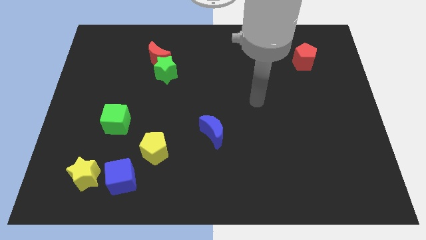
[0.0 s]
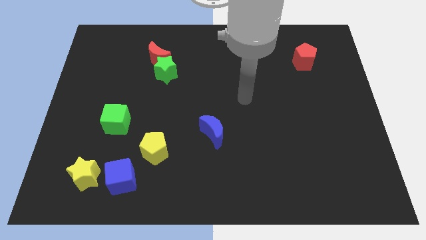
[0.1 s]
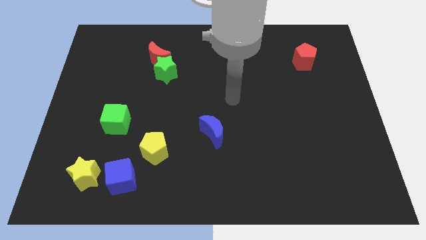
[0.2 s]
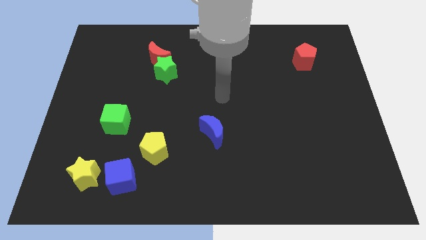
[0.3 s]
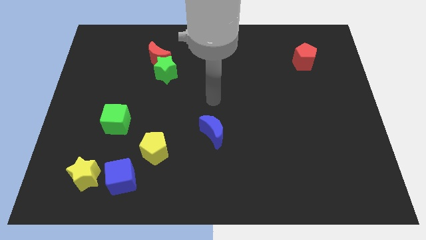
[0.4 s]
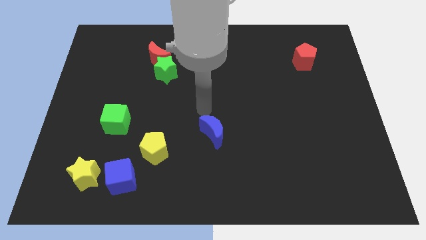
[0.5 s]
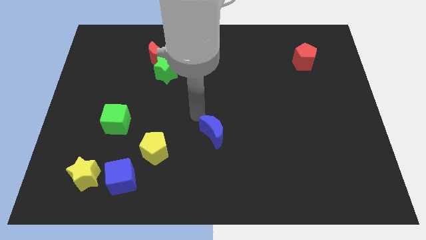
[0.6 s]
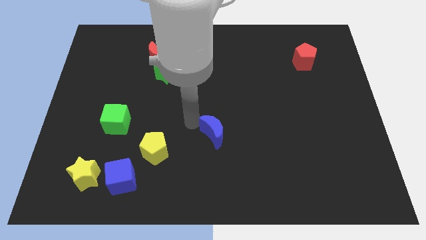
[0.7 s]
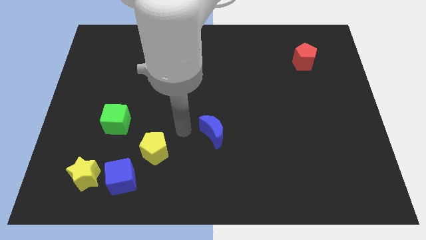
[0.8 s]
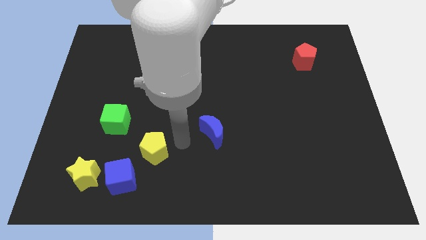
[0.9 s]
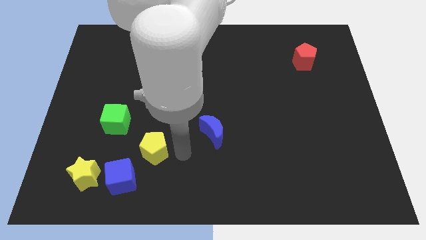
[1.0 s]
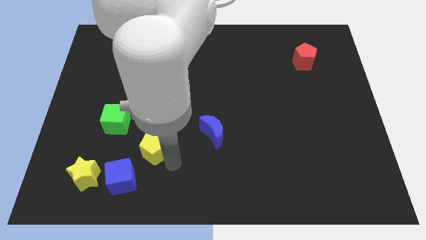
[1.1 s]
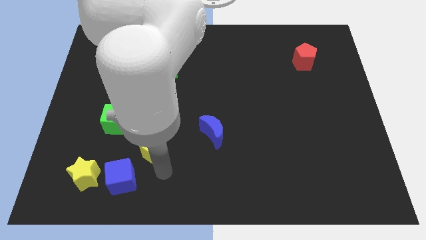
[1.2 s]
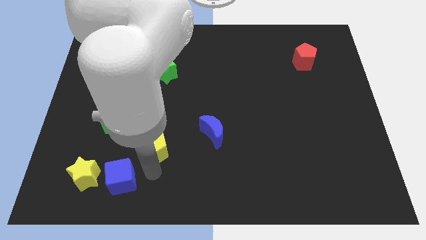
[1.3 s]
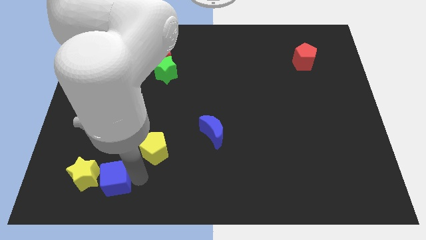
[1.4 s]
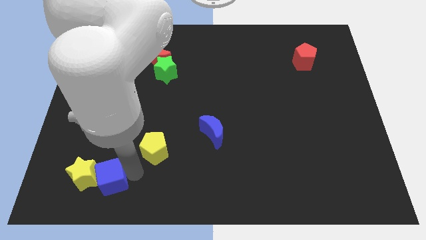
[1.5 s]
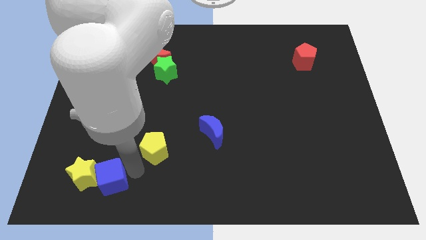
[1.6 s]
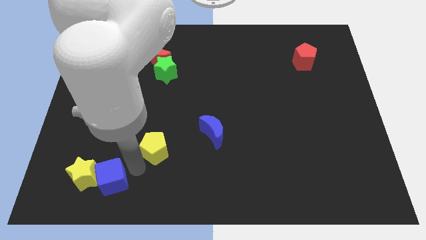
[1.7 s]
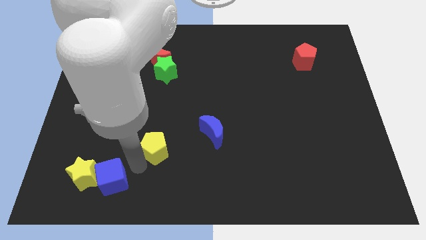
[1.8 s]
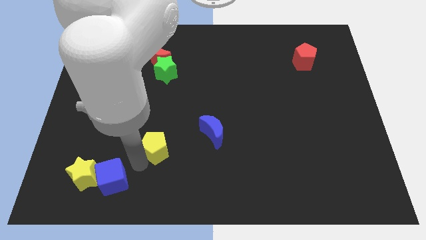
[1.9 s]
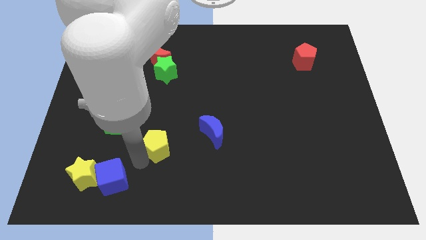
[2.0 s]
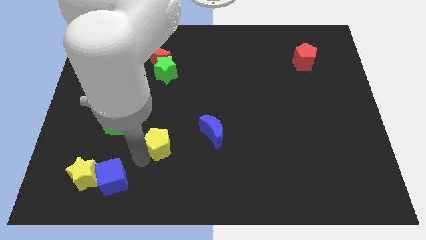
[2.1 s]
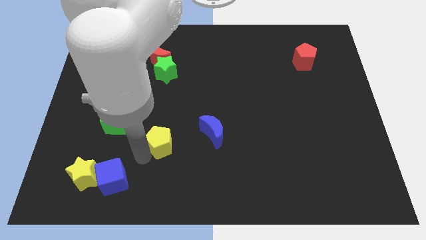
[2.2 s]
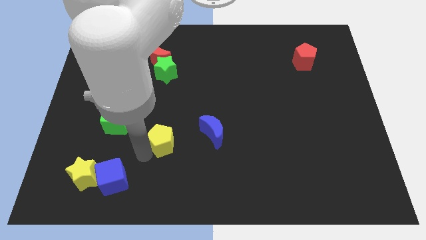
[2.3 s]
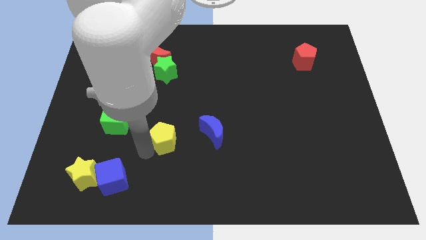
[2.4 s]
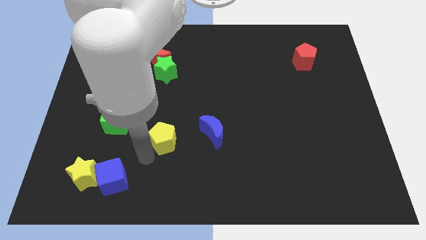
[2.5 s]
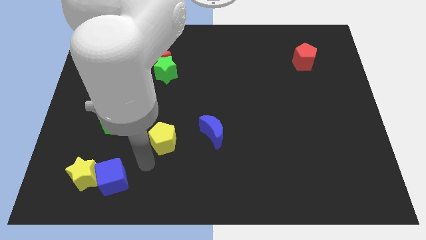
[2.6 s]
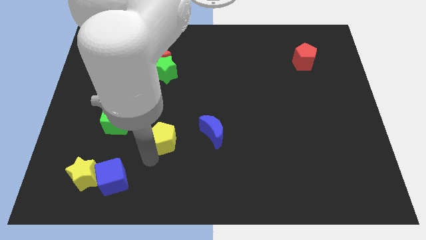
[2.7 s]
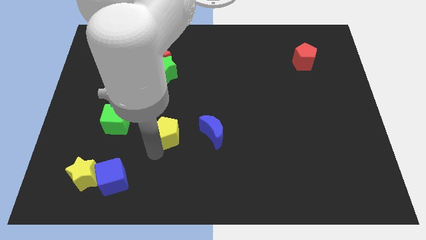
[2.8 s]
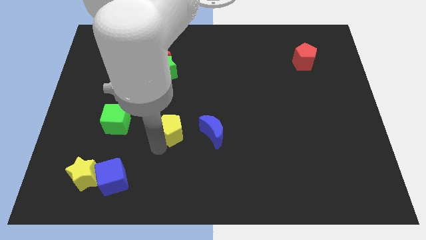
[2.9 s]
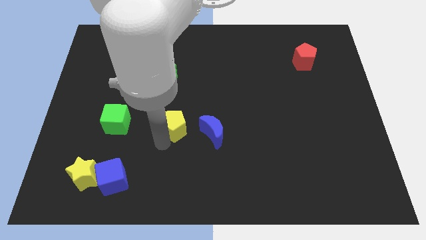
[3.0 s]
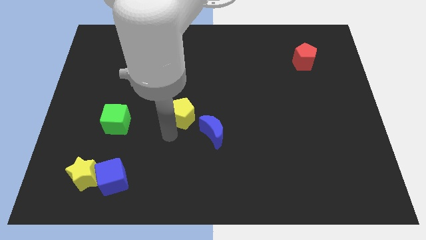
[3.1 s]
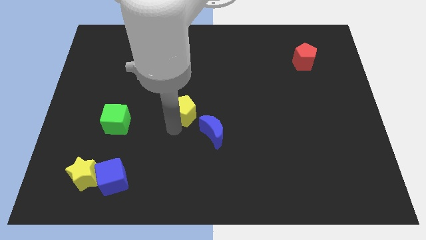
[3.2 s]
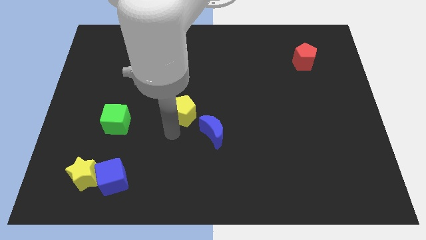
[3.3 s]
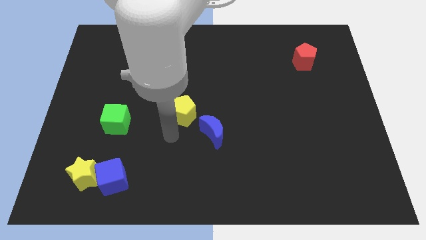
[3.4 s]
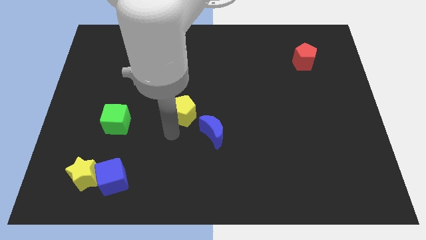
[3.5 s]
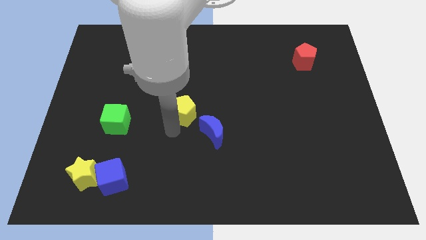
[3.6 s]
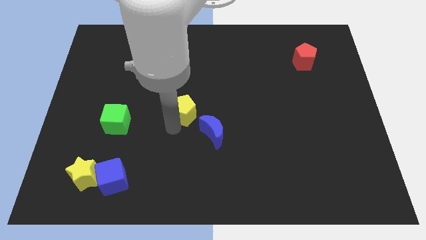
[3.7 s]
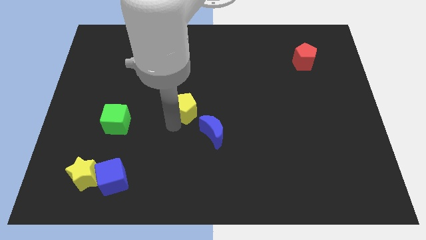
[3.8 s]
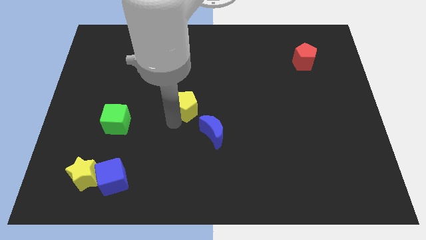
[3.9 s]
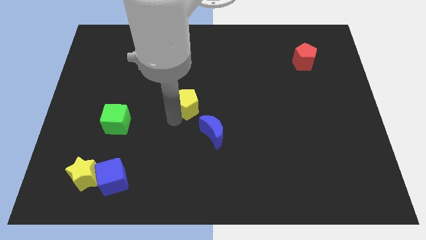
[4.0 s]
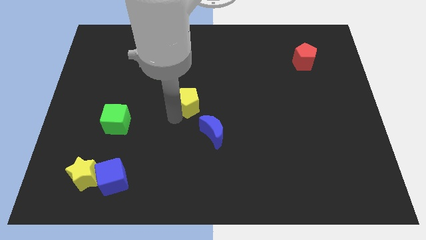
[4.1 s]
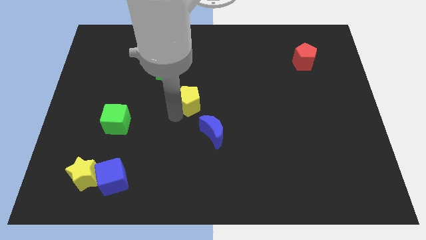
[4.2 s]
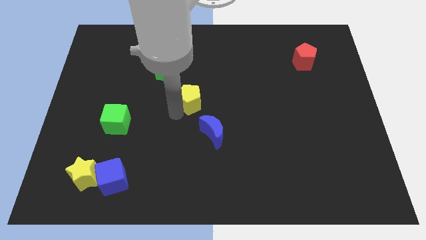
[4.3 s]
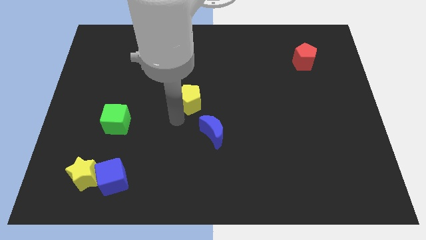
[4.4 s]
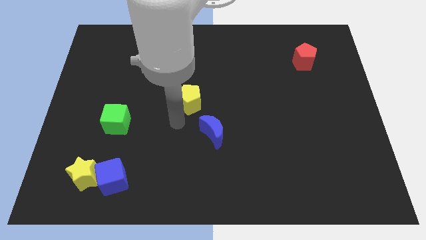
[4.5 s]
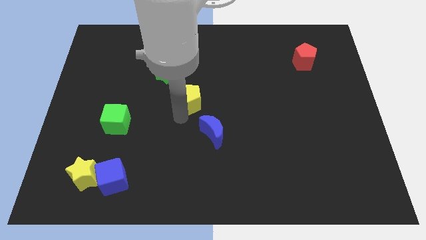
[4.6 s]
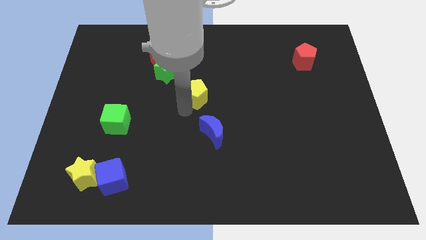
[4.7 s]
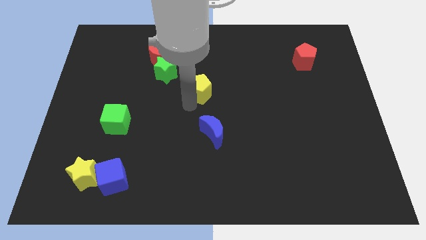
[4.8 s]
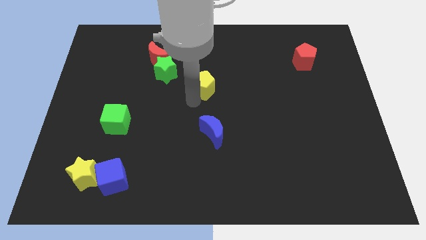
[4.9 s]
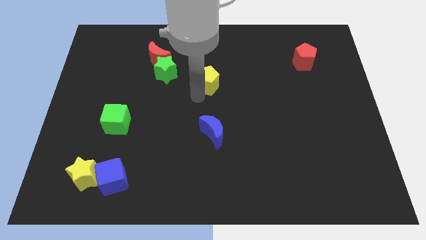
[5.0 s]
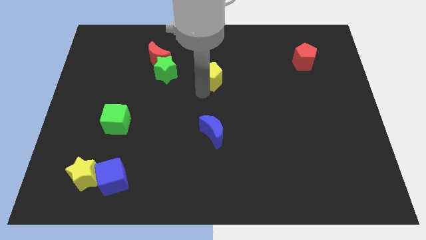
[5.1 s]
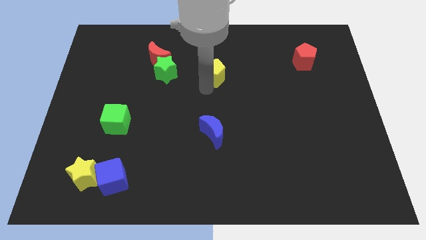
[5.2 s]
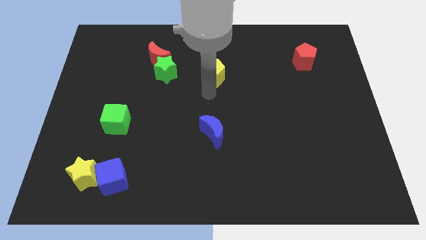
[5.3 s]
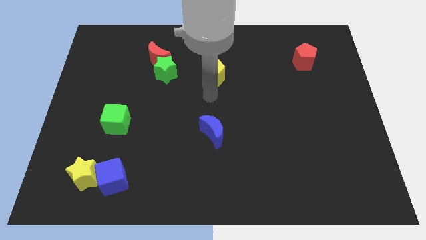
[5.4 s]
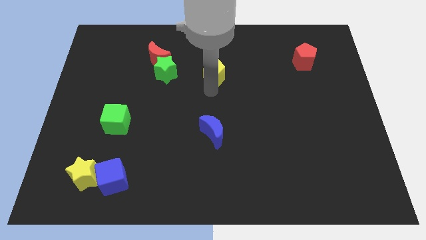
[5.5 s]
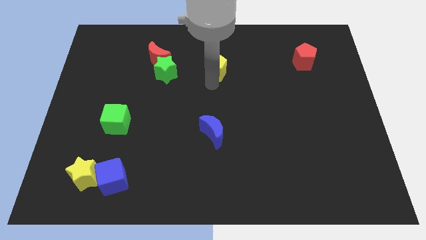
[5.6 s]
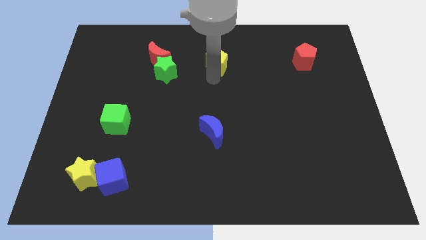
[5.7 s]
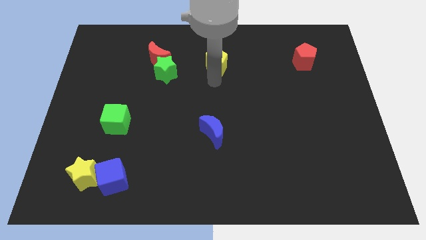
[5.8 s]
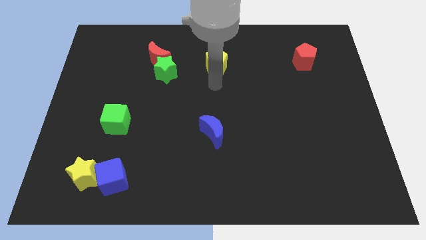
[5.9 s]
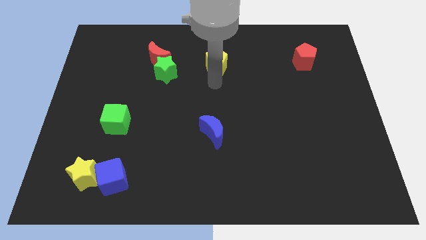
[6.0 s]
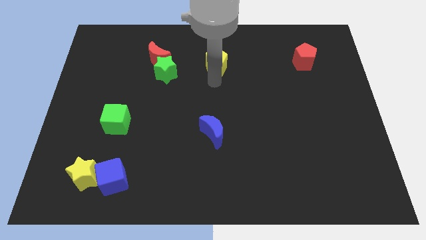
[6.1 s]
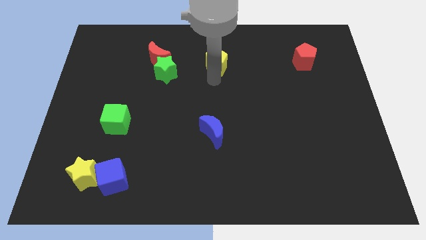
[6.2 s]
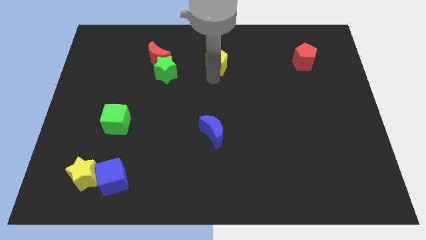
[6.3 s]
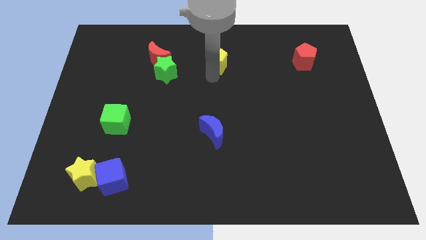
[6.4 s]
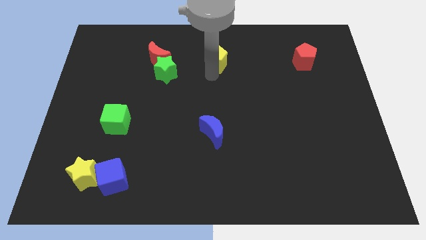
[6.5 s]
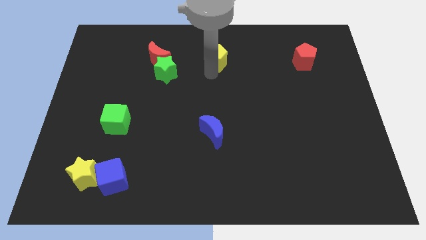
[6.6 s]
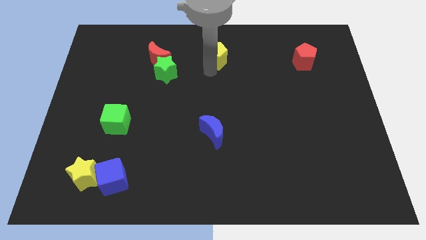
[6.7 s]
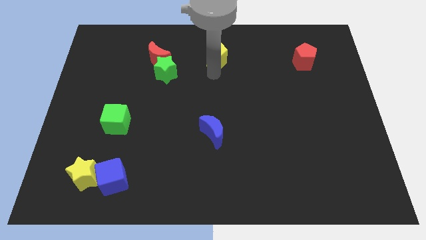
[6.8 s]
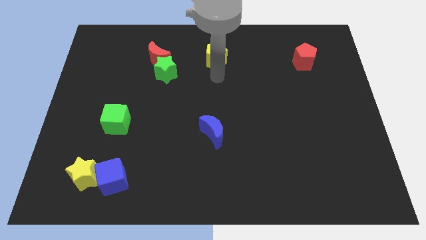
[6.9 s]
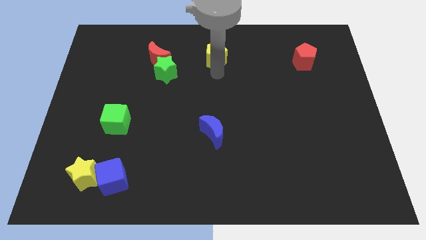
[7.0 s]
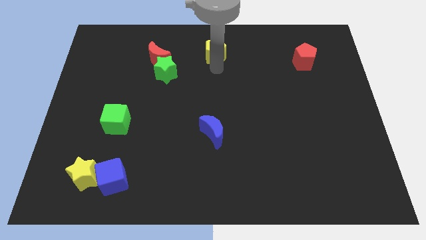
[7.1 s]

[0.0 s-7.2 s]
put the yellow pentagon to the towards your base
